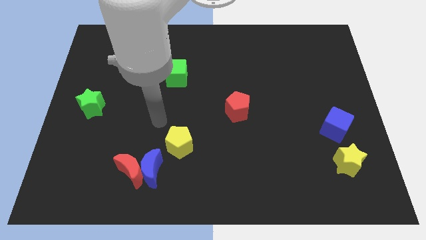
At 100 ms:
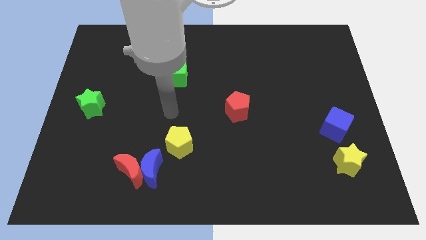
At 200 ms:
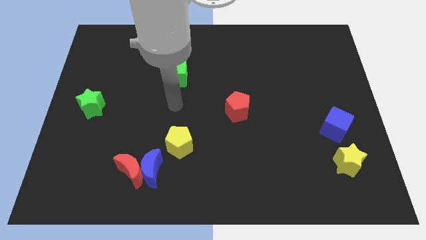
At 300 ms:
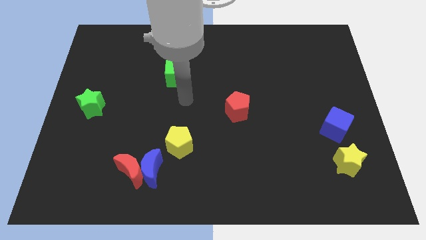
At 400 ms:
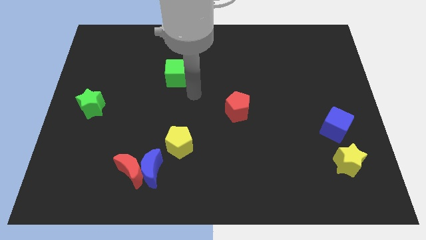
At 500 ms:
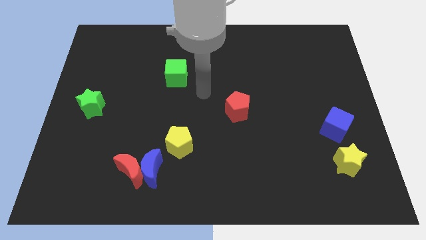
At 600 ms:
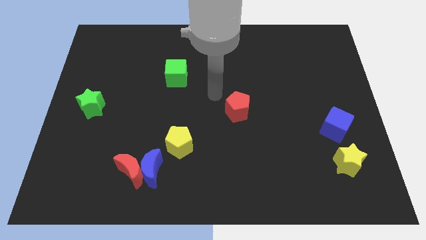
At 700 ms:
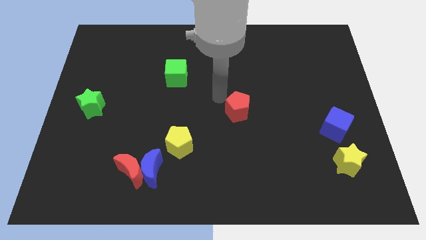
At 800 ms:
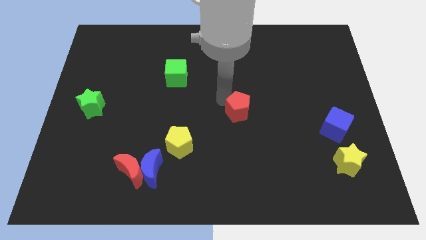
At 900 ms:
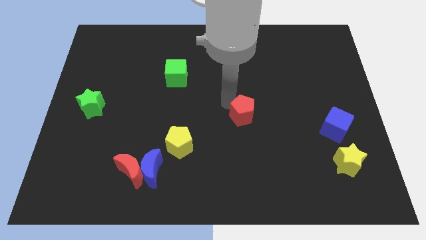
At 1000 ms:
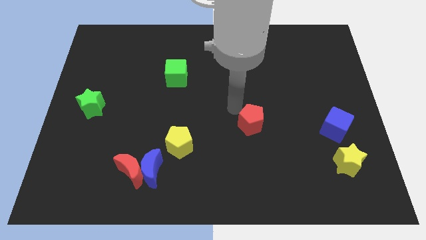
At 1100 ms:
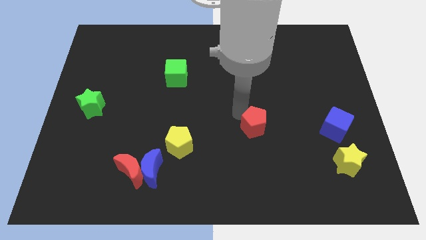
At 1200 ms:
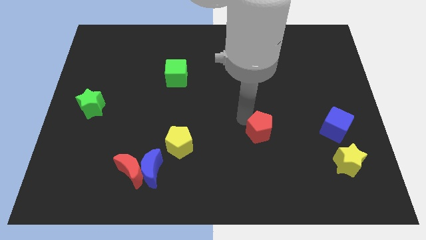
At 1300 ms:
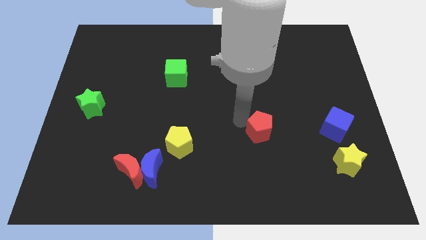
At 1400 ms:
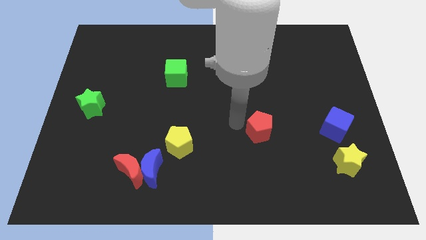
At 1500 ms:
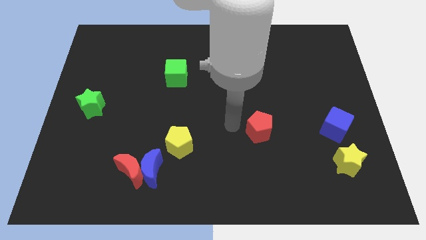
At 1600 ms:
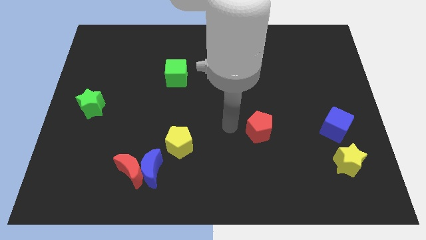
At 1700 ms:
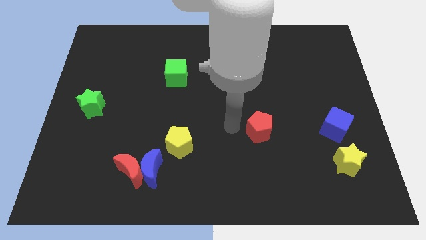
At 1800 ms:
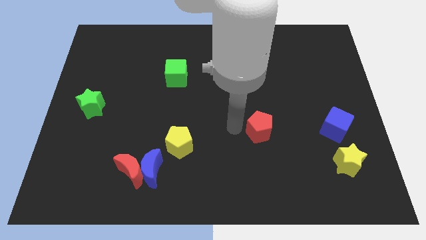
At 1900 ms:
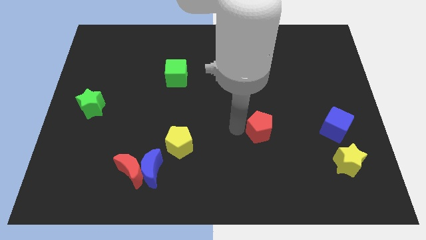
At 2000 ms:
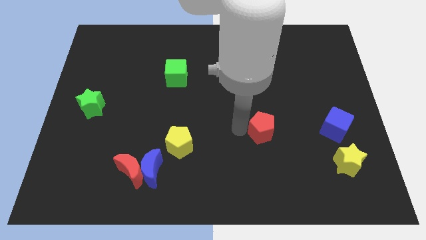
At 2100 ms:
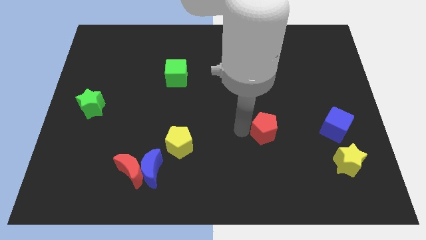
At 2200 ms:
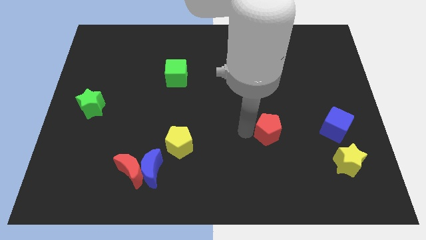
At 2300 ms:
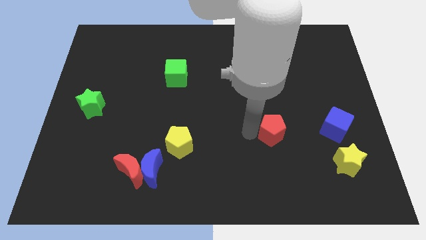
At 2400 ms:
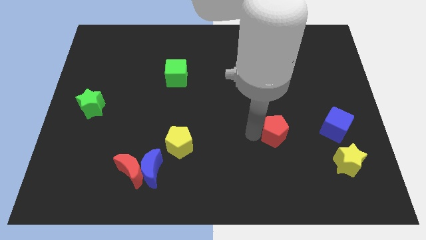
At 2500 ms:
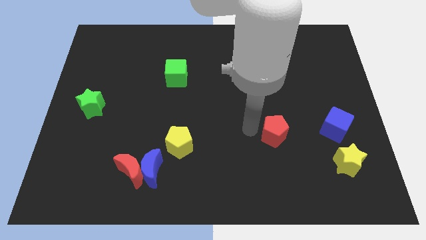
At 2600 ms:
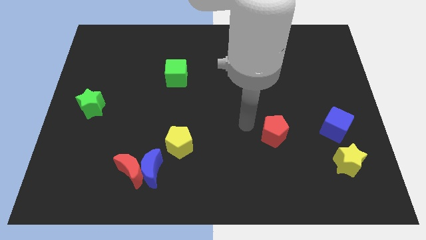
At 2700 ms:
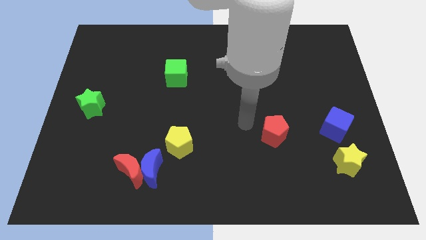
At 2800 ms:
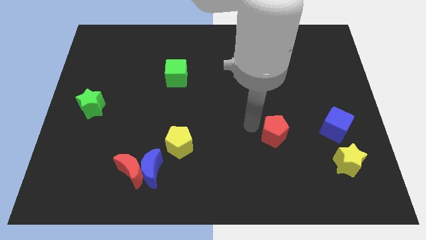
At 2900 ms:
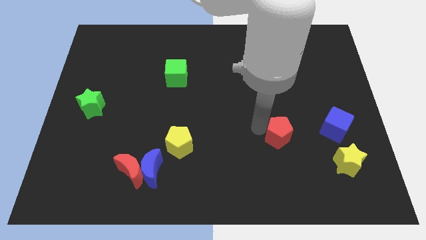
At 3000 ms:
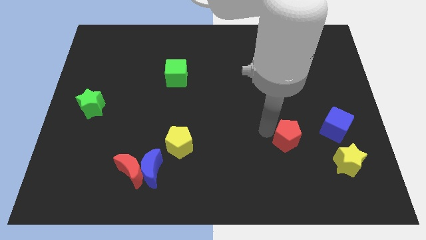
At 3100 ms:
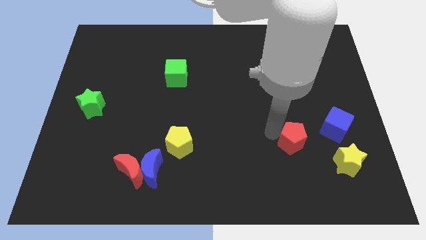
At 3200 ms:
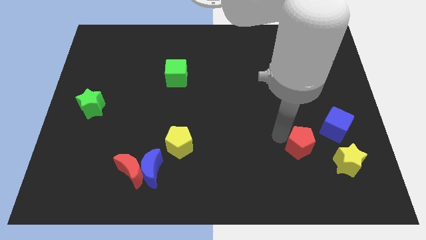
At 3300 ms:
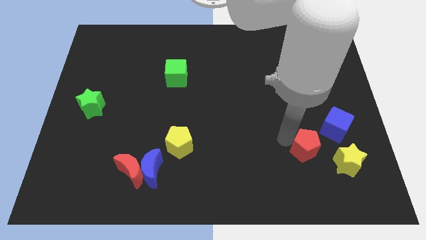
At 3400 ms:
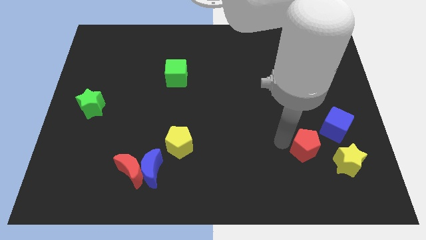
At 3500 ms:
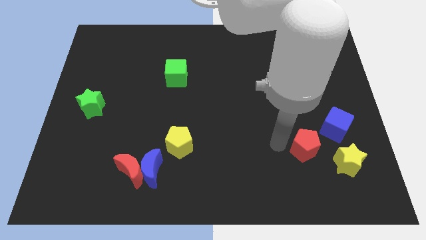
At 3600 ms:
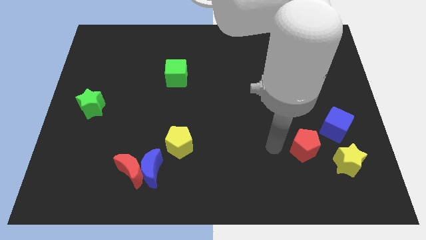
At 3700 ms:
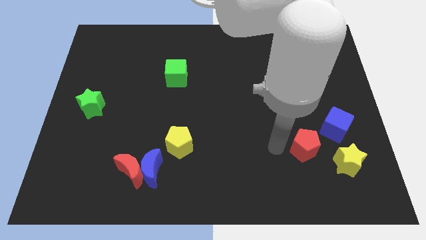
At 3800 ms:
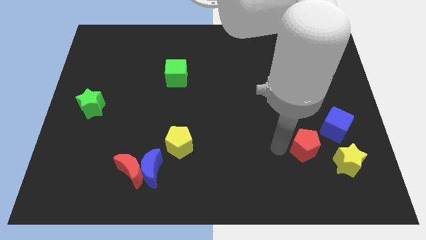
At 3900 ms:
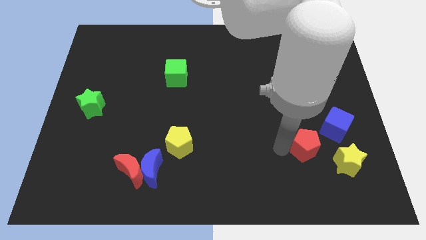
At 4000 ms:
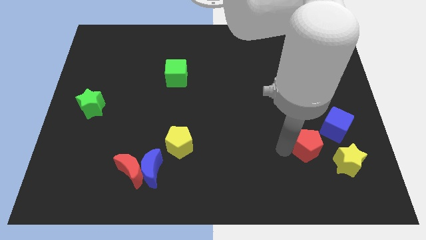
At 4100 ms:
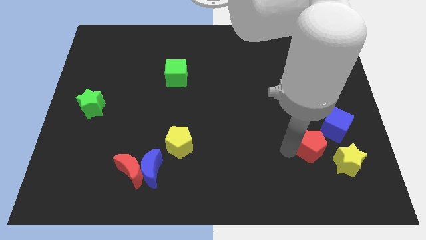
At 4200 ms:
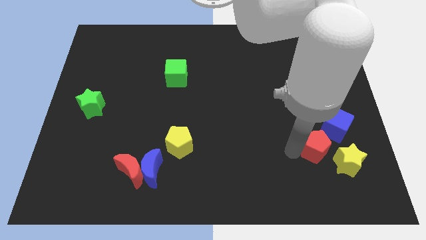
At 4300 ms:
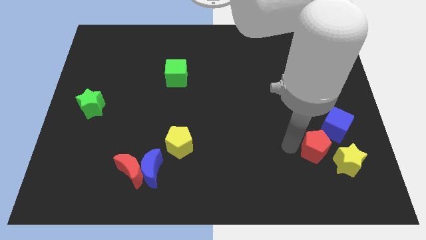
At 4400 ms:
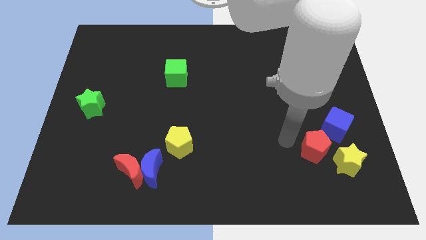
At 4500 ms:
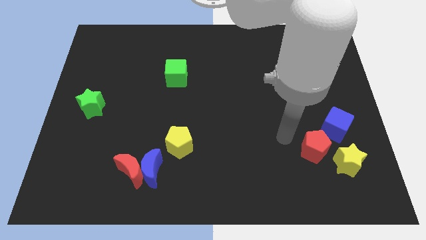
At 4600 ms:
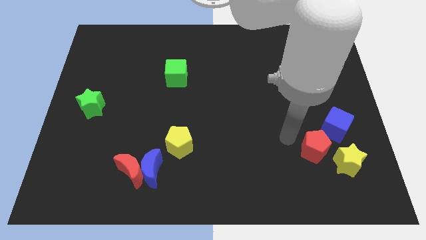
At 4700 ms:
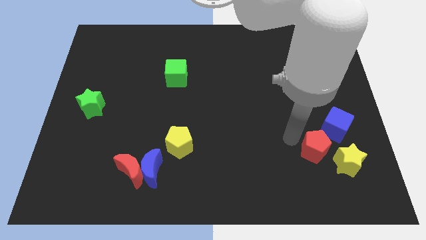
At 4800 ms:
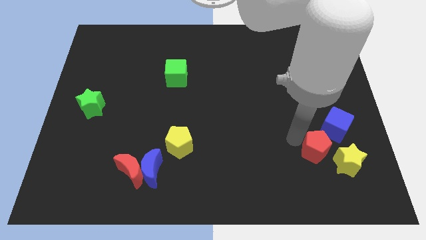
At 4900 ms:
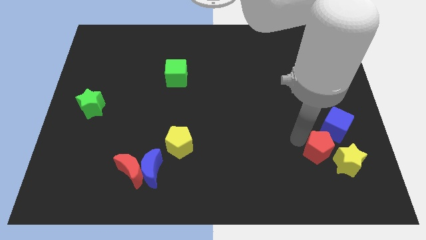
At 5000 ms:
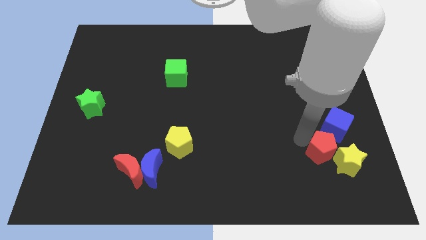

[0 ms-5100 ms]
put the red pentagon next to the yellow star

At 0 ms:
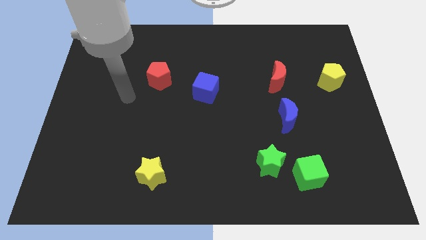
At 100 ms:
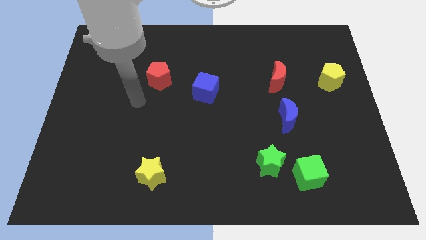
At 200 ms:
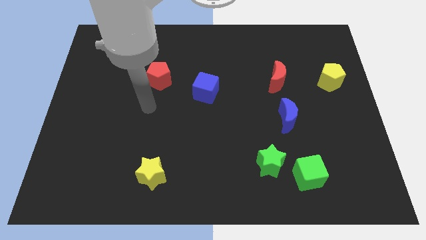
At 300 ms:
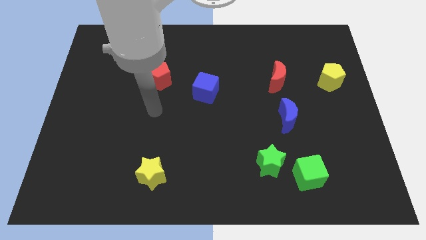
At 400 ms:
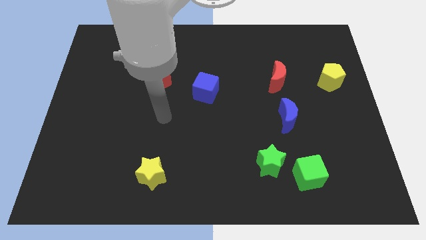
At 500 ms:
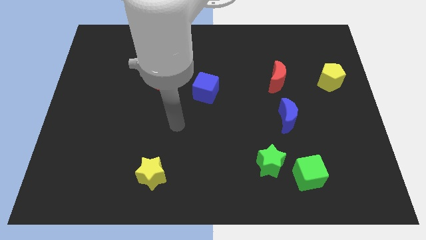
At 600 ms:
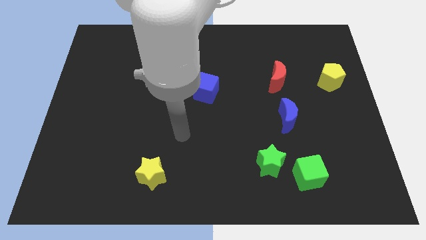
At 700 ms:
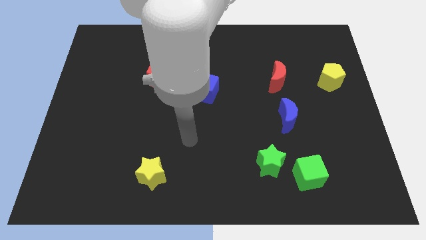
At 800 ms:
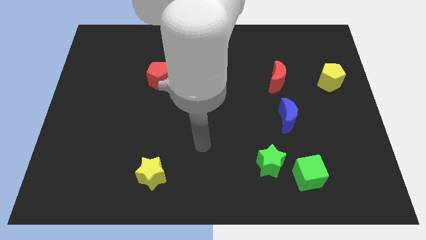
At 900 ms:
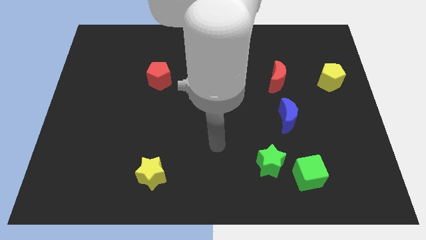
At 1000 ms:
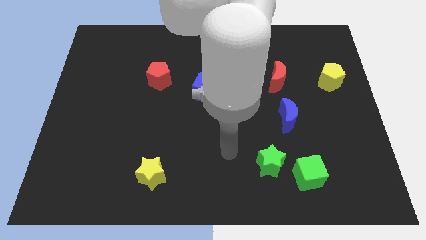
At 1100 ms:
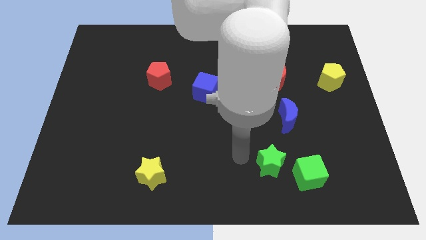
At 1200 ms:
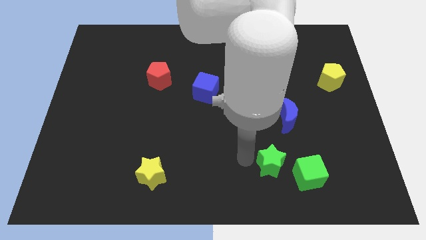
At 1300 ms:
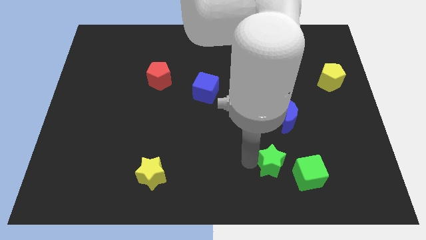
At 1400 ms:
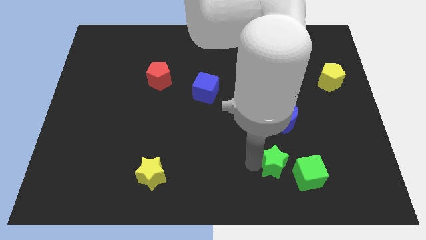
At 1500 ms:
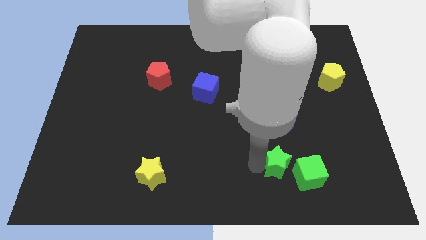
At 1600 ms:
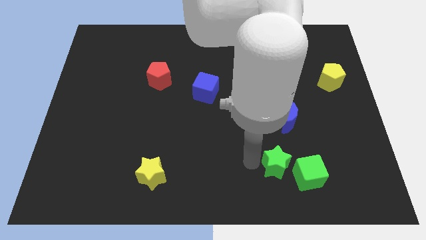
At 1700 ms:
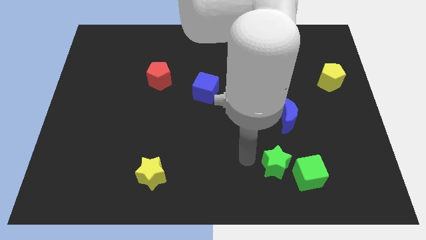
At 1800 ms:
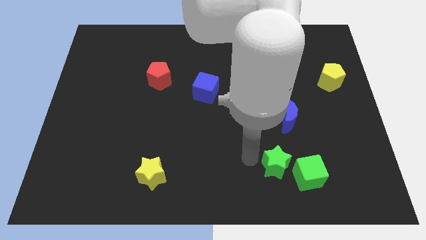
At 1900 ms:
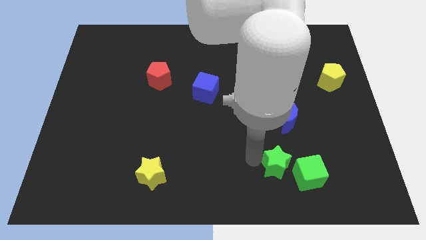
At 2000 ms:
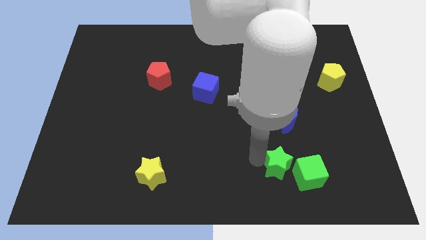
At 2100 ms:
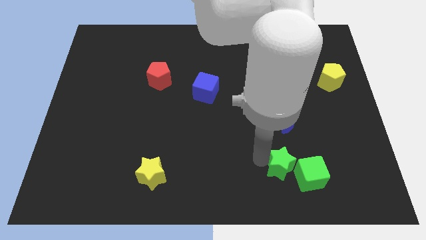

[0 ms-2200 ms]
push the green star to the green cube

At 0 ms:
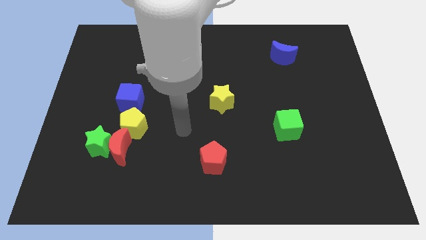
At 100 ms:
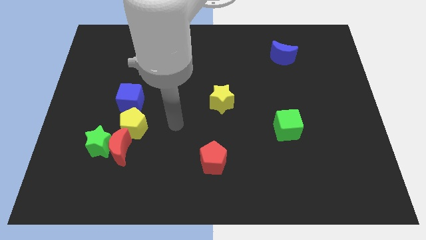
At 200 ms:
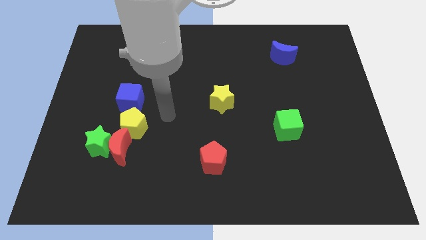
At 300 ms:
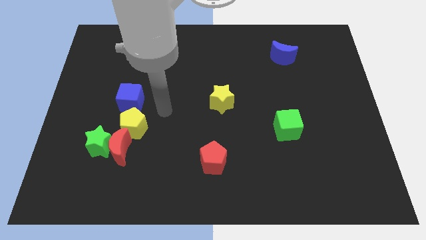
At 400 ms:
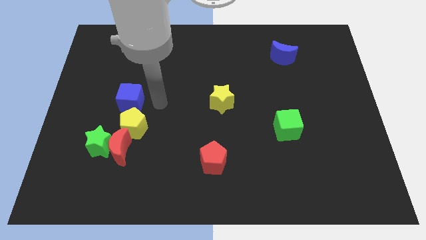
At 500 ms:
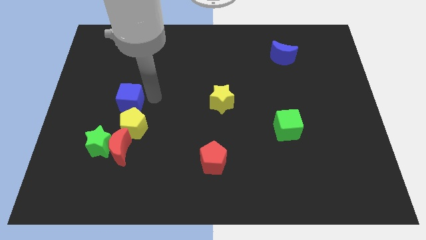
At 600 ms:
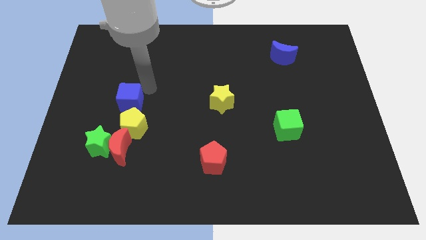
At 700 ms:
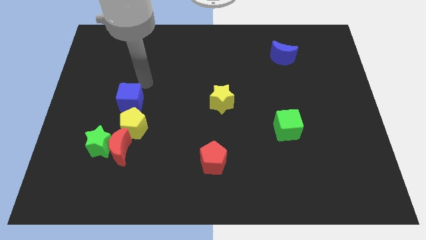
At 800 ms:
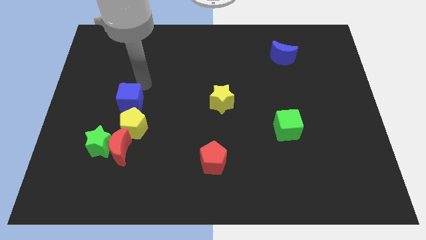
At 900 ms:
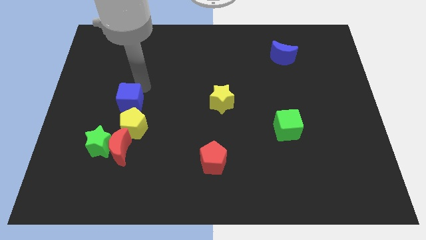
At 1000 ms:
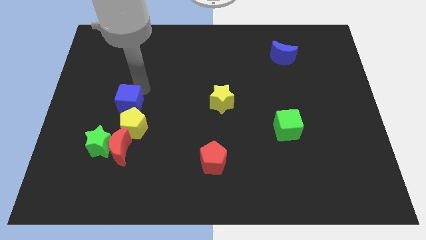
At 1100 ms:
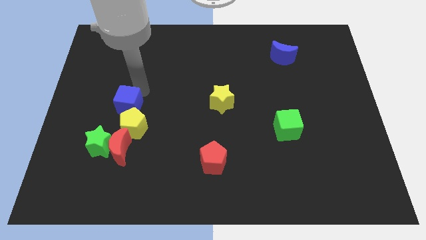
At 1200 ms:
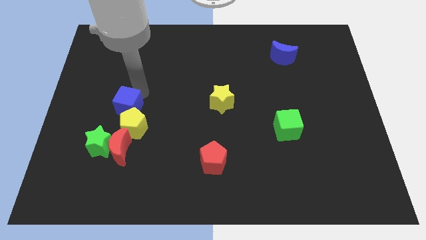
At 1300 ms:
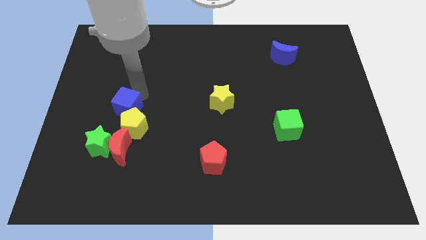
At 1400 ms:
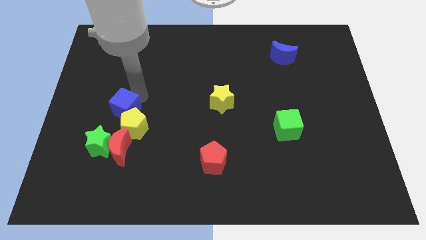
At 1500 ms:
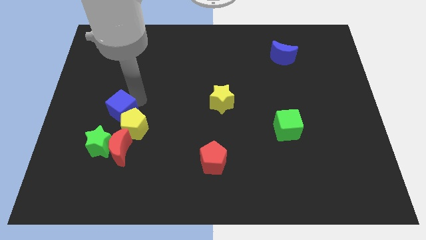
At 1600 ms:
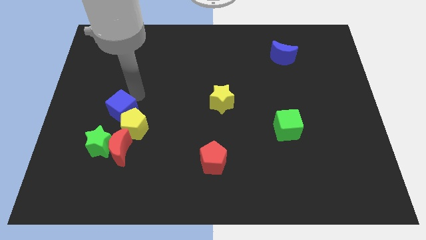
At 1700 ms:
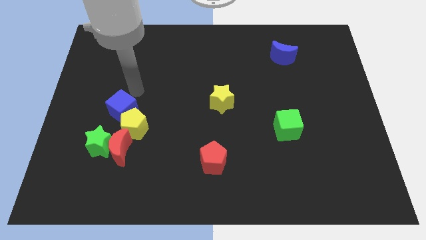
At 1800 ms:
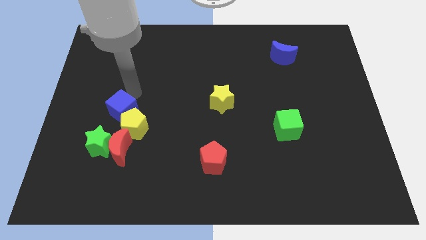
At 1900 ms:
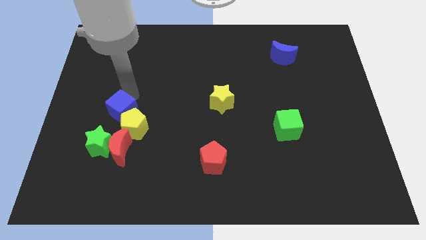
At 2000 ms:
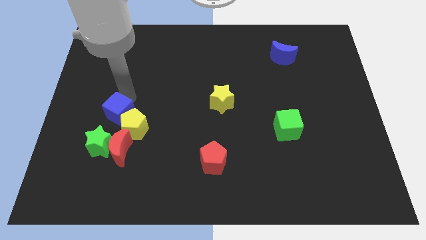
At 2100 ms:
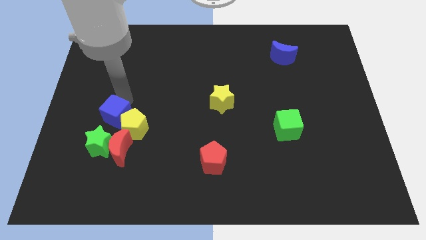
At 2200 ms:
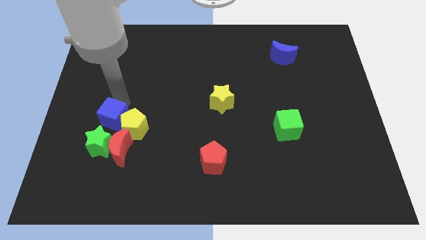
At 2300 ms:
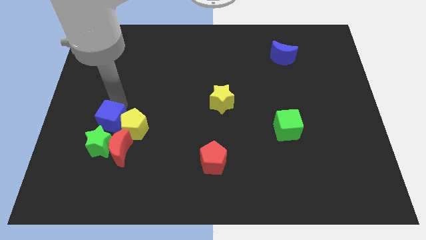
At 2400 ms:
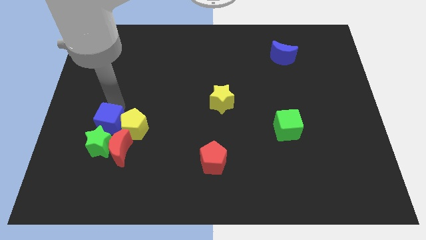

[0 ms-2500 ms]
move the blue cube towards the green star
